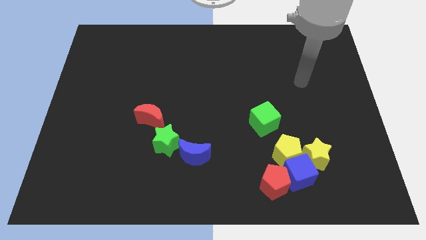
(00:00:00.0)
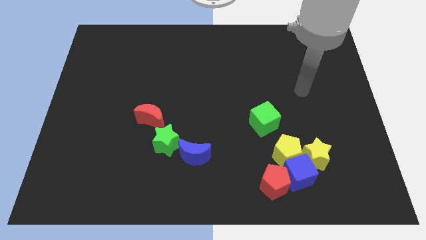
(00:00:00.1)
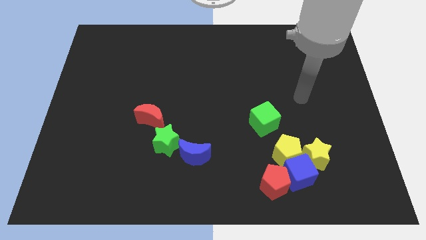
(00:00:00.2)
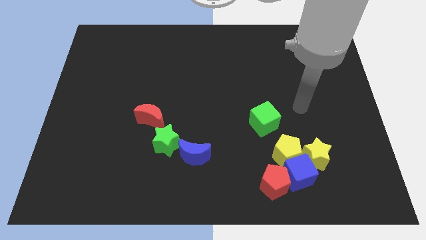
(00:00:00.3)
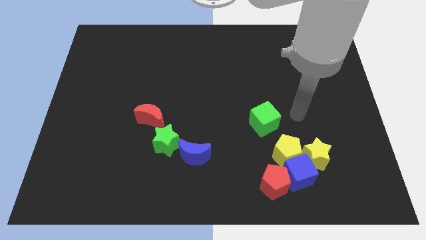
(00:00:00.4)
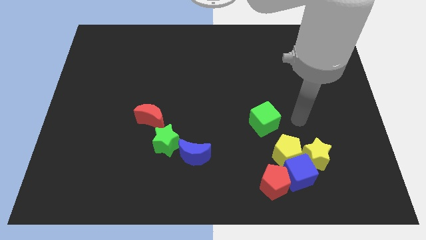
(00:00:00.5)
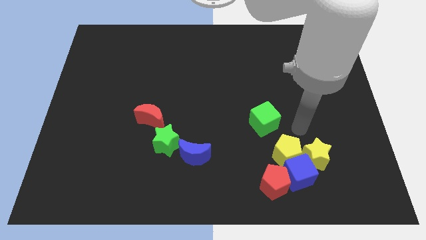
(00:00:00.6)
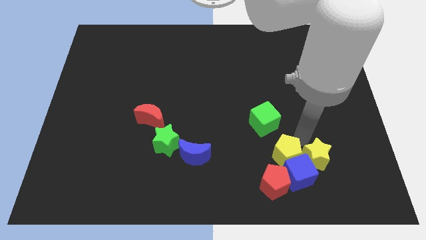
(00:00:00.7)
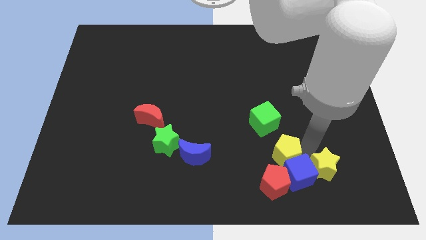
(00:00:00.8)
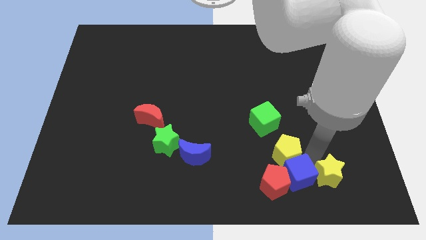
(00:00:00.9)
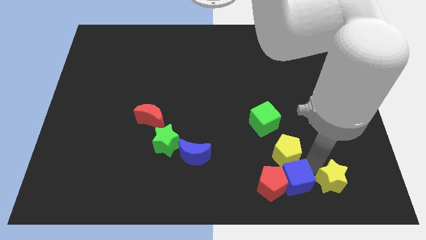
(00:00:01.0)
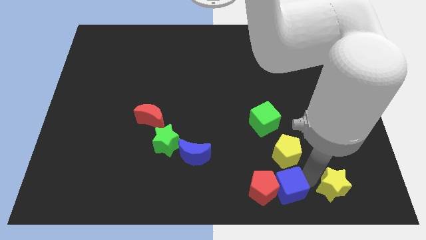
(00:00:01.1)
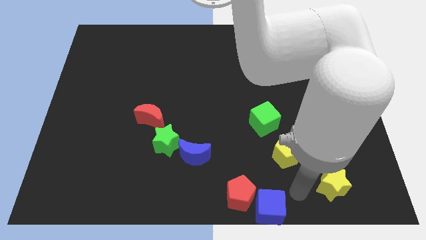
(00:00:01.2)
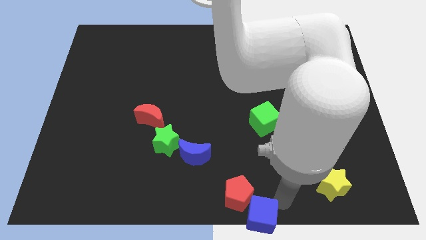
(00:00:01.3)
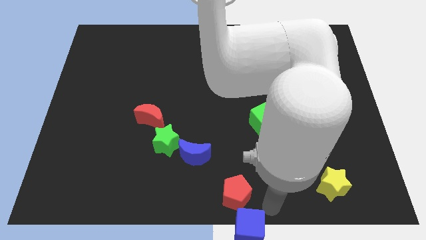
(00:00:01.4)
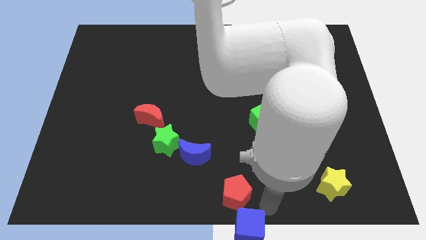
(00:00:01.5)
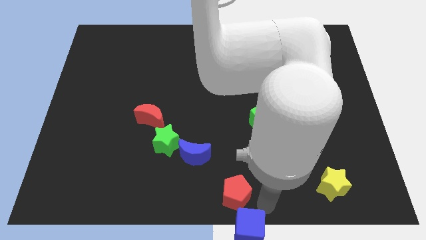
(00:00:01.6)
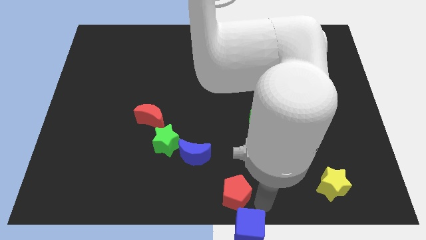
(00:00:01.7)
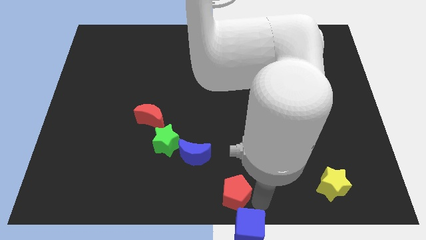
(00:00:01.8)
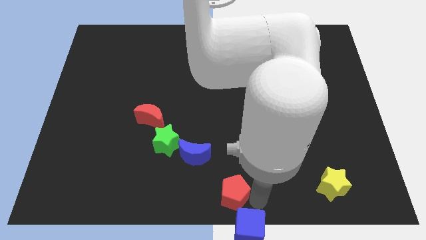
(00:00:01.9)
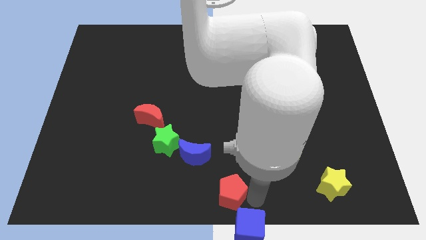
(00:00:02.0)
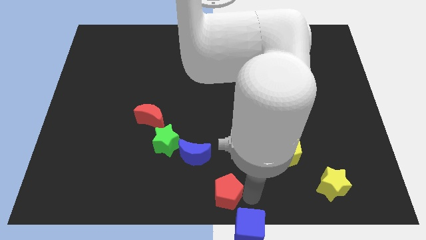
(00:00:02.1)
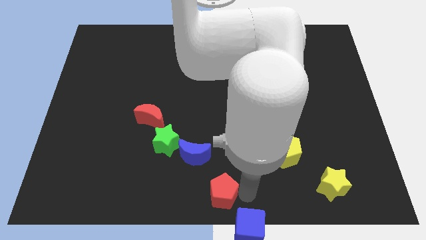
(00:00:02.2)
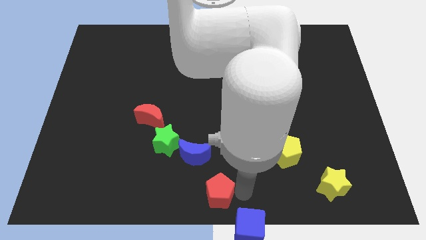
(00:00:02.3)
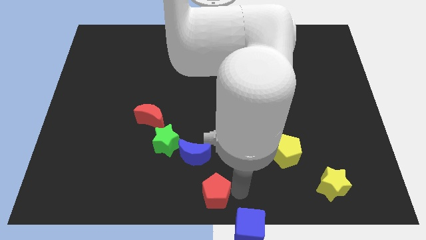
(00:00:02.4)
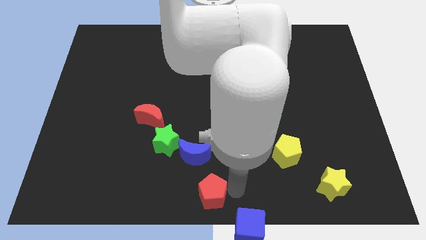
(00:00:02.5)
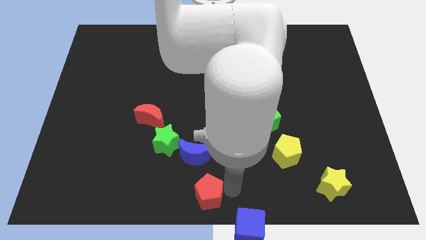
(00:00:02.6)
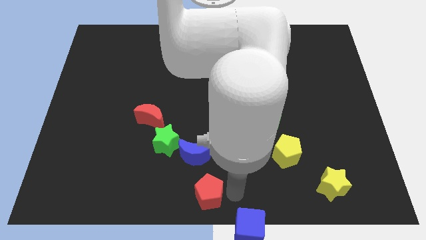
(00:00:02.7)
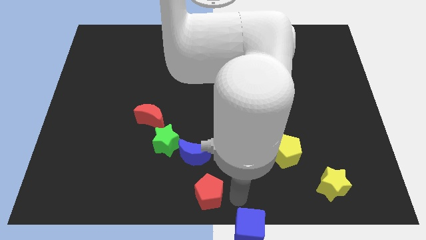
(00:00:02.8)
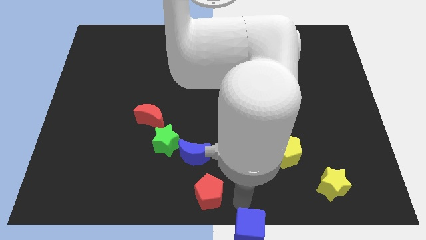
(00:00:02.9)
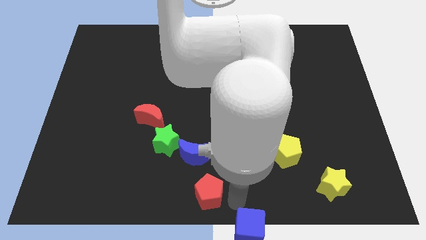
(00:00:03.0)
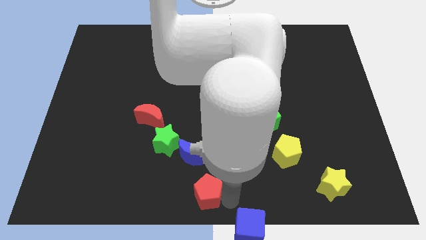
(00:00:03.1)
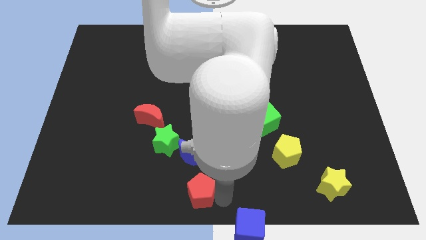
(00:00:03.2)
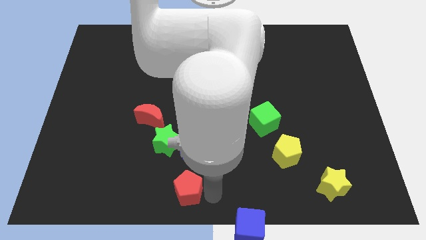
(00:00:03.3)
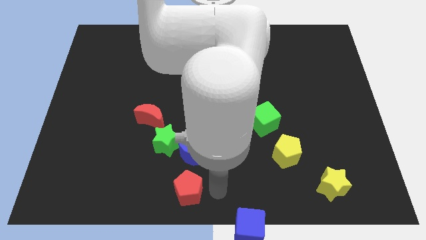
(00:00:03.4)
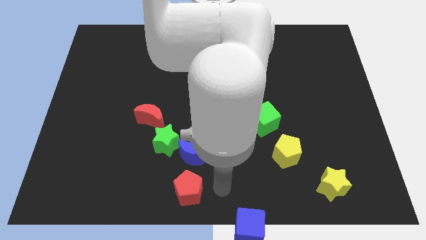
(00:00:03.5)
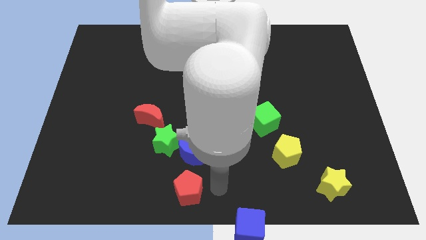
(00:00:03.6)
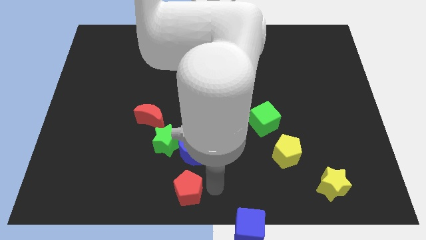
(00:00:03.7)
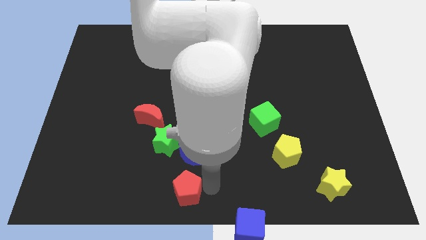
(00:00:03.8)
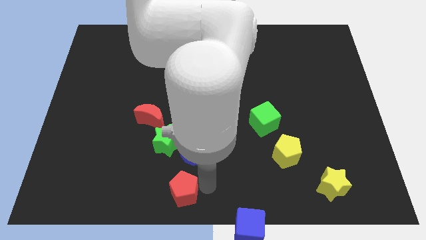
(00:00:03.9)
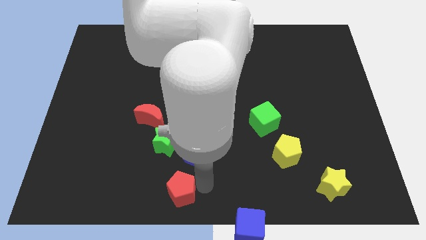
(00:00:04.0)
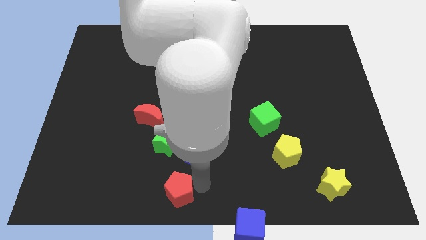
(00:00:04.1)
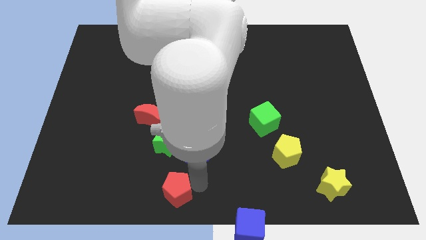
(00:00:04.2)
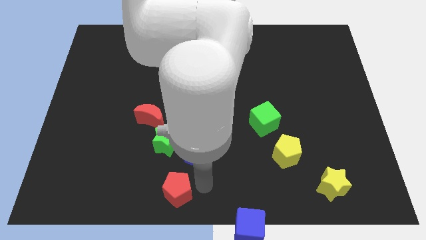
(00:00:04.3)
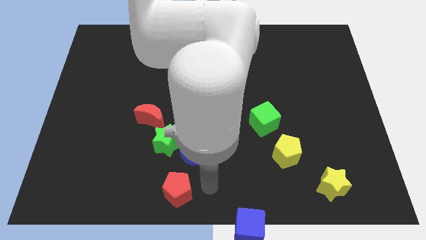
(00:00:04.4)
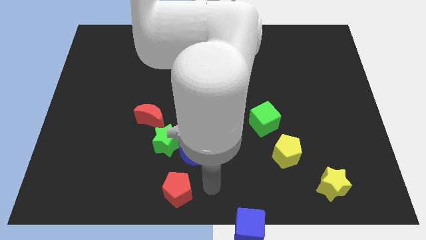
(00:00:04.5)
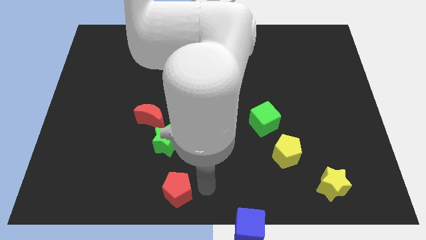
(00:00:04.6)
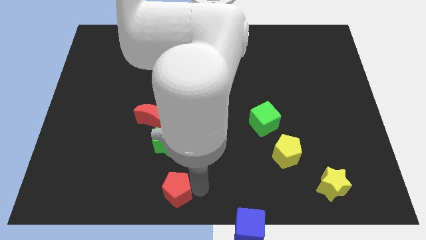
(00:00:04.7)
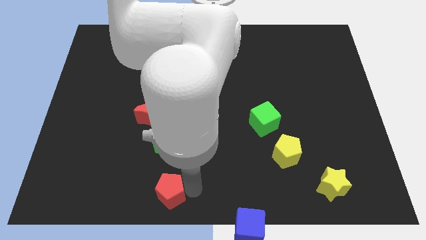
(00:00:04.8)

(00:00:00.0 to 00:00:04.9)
move the red pentagon left

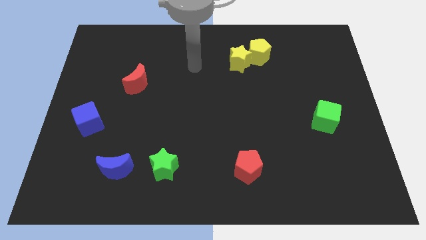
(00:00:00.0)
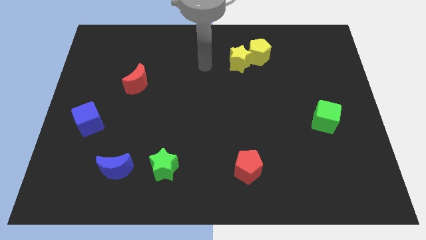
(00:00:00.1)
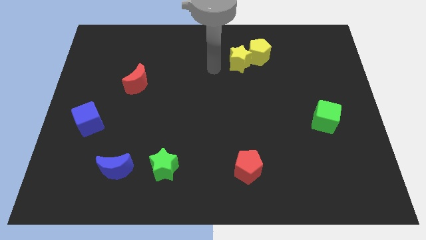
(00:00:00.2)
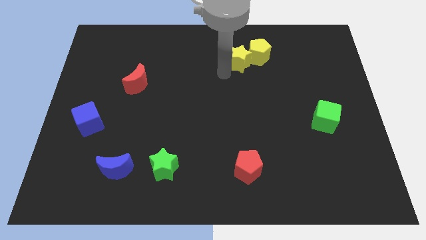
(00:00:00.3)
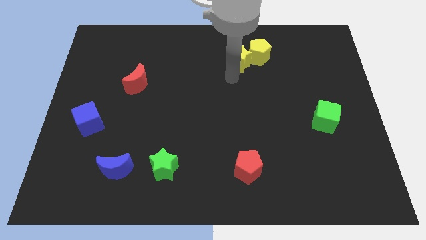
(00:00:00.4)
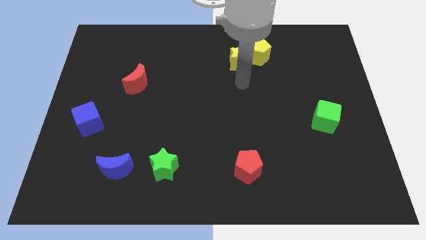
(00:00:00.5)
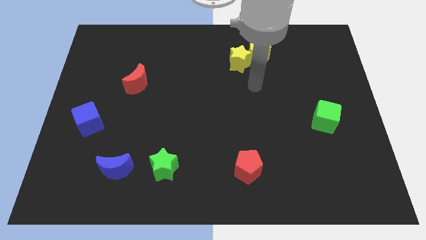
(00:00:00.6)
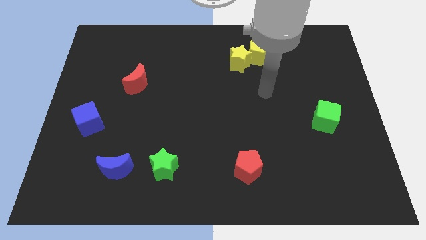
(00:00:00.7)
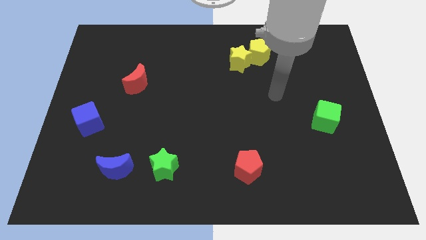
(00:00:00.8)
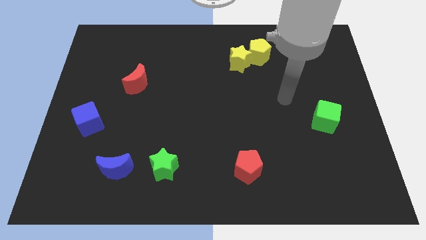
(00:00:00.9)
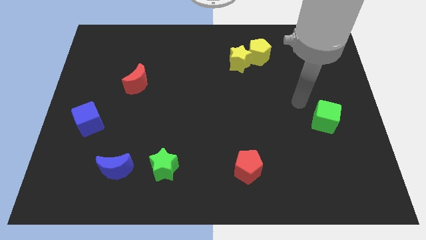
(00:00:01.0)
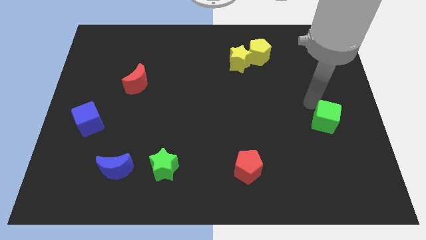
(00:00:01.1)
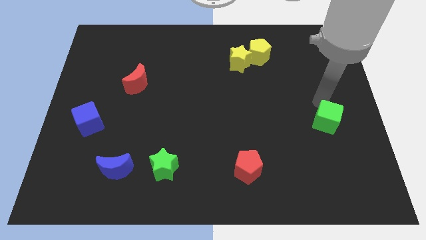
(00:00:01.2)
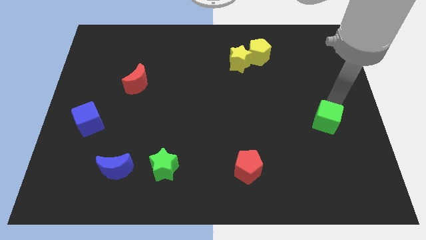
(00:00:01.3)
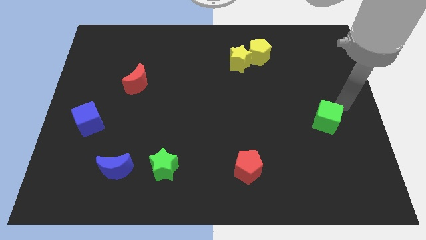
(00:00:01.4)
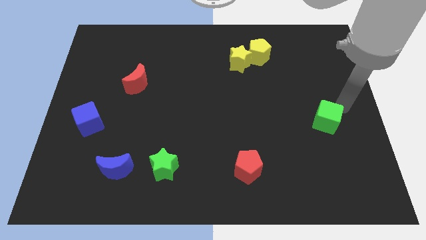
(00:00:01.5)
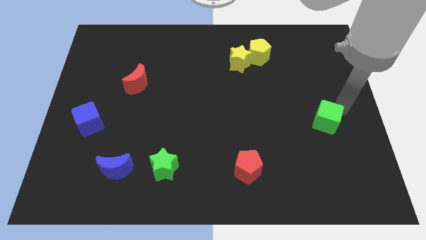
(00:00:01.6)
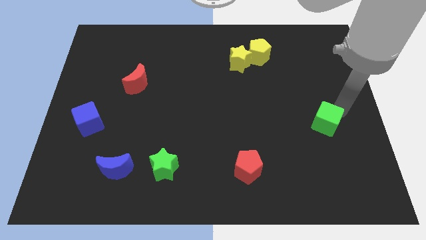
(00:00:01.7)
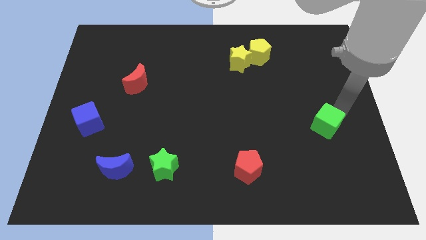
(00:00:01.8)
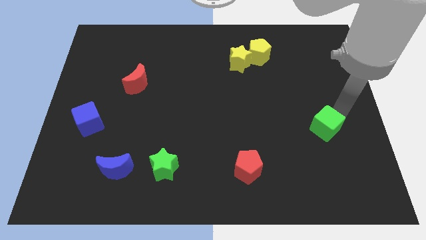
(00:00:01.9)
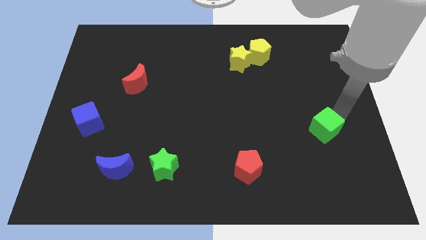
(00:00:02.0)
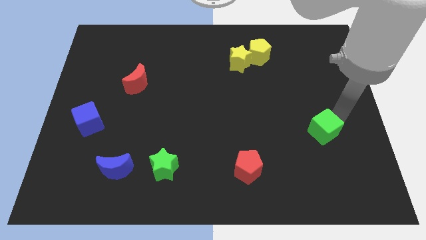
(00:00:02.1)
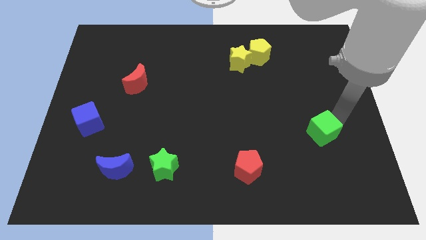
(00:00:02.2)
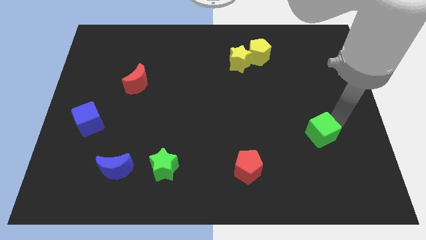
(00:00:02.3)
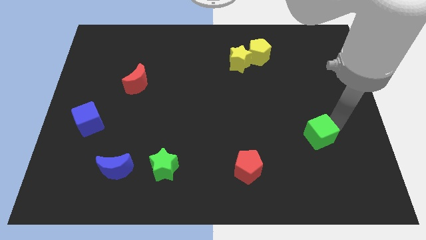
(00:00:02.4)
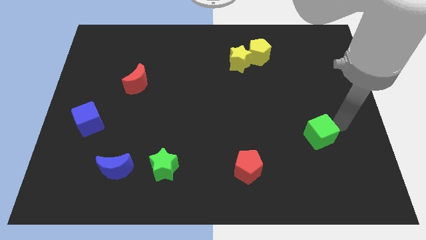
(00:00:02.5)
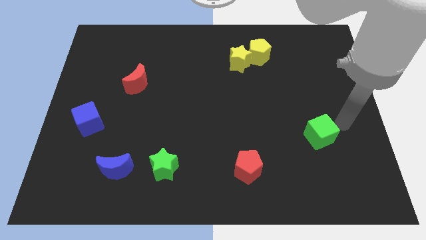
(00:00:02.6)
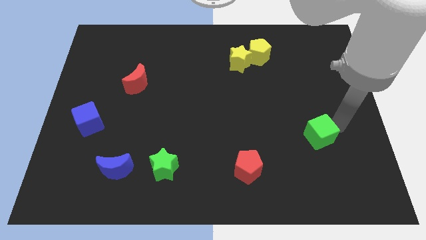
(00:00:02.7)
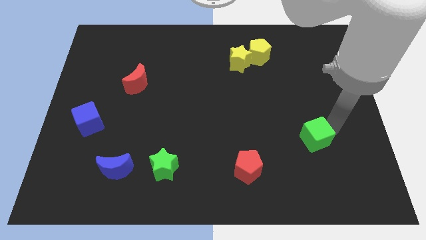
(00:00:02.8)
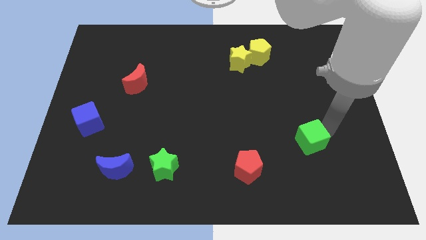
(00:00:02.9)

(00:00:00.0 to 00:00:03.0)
move the green cube diagonally downwards and left somewhat

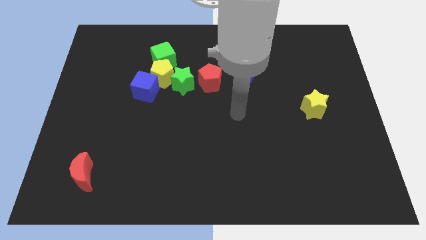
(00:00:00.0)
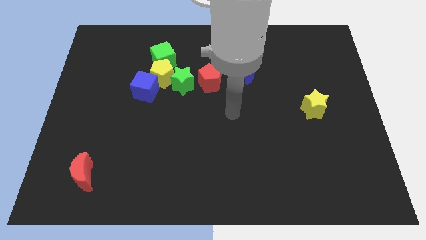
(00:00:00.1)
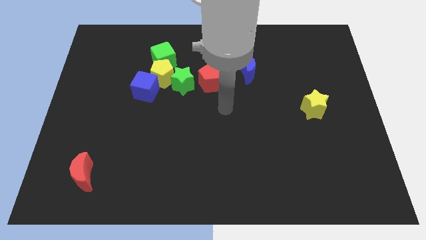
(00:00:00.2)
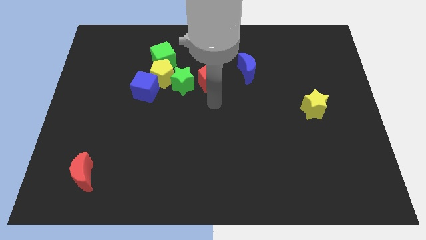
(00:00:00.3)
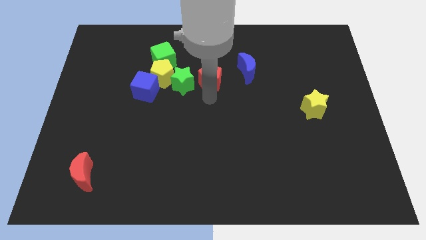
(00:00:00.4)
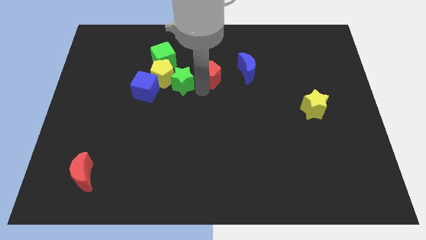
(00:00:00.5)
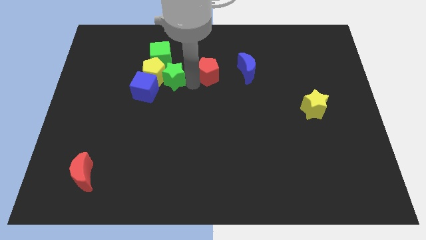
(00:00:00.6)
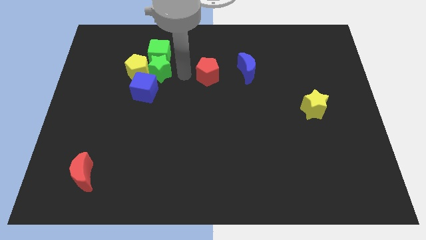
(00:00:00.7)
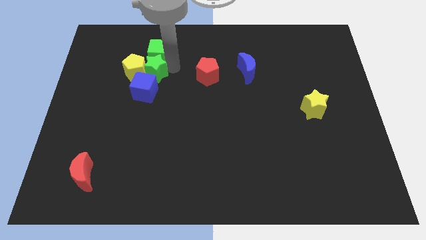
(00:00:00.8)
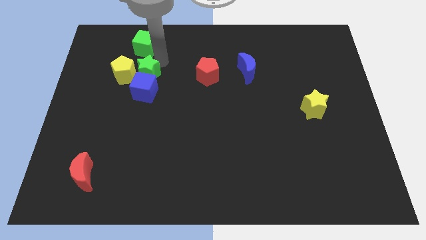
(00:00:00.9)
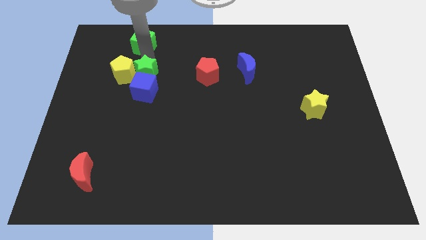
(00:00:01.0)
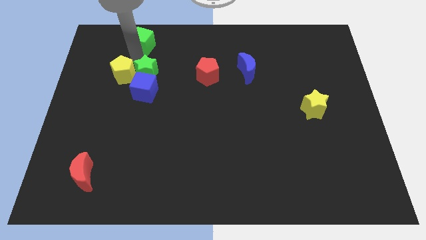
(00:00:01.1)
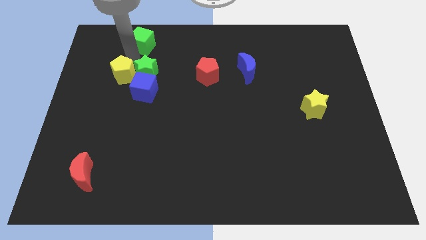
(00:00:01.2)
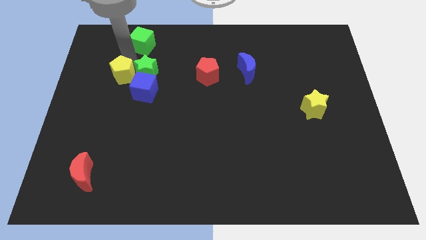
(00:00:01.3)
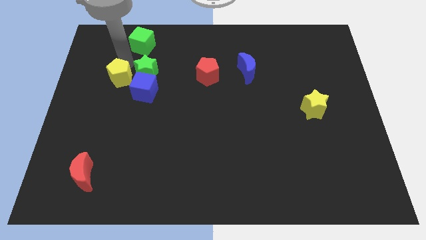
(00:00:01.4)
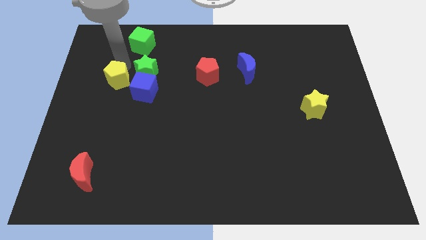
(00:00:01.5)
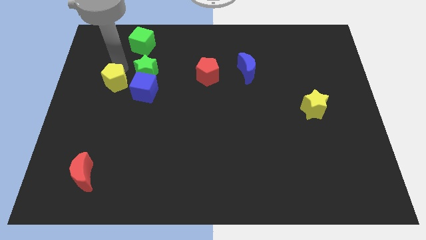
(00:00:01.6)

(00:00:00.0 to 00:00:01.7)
move the yellow pentagon downwards and left diagonally somewhat
